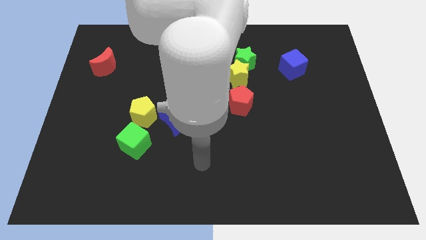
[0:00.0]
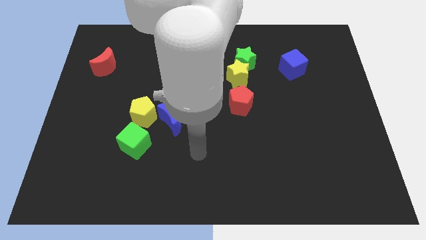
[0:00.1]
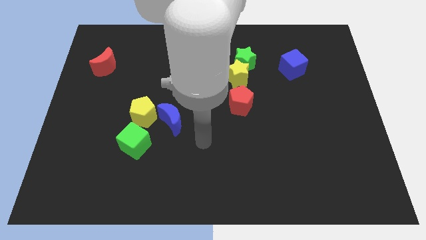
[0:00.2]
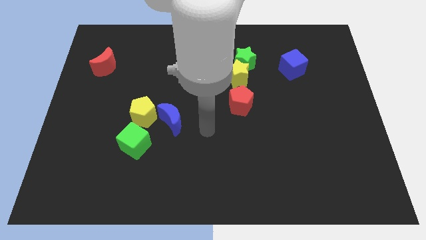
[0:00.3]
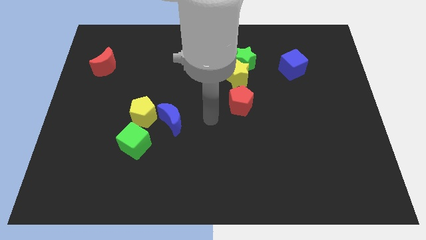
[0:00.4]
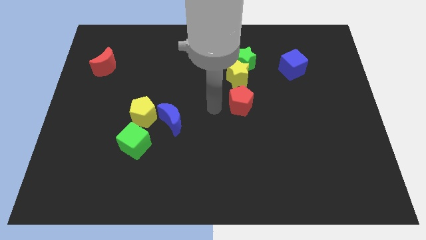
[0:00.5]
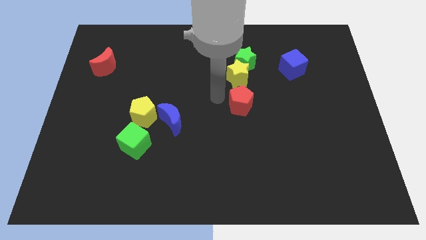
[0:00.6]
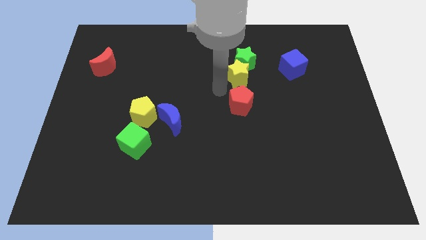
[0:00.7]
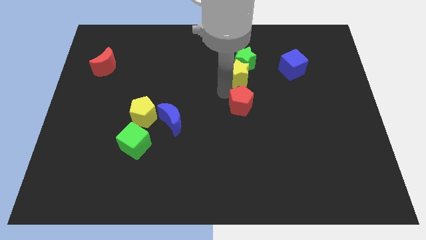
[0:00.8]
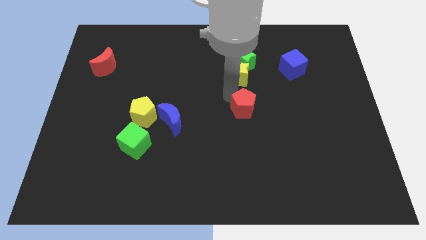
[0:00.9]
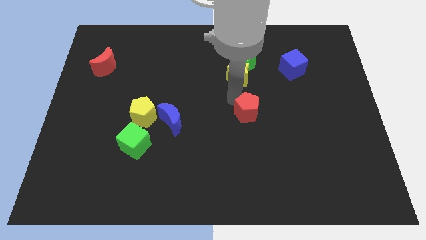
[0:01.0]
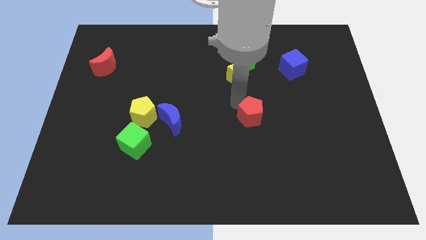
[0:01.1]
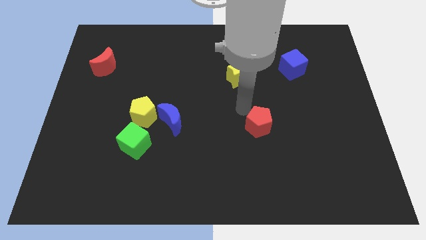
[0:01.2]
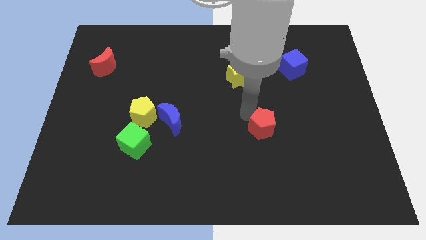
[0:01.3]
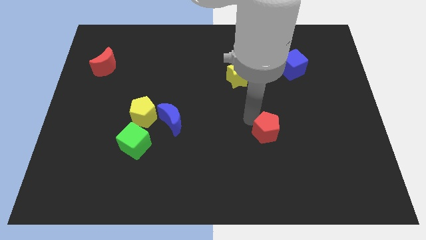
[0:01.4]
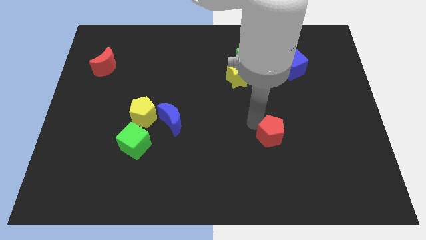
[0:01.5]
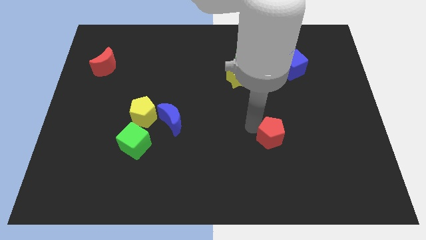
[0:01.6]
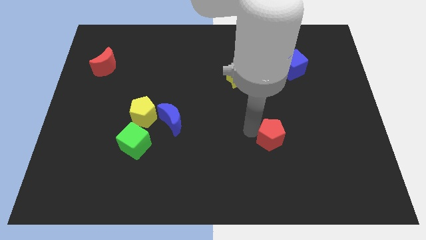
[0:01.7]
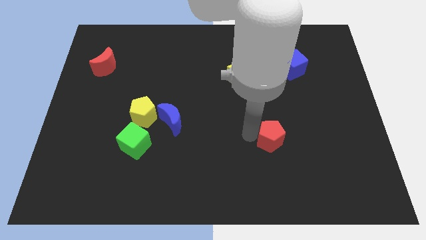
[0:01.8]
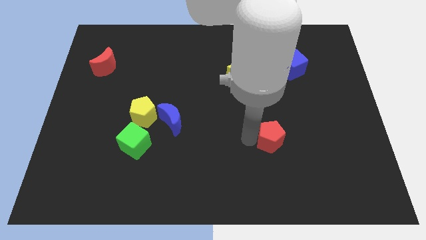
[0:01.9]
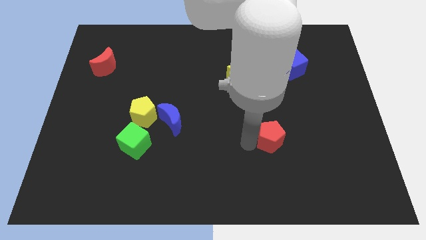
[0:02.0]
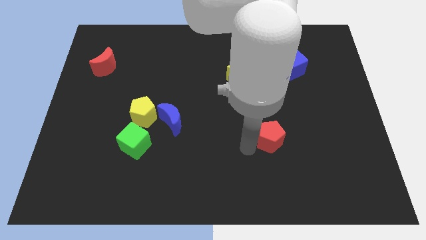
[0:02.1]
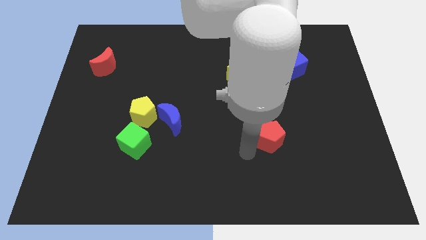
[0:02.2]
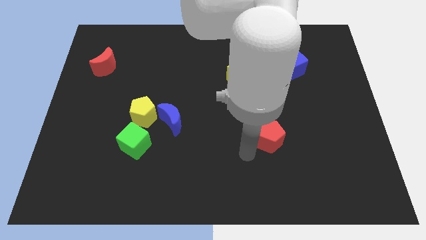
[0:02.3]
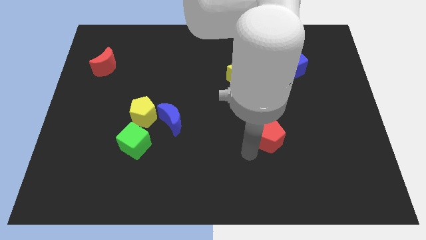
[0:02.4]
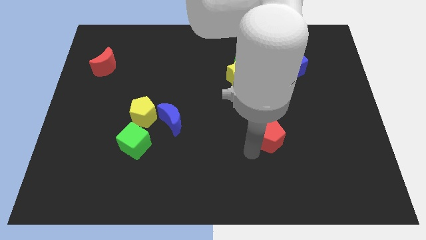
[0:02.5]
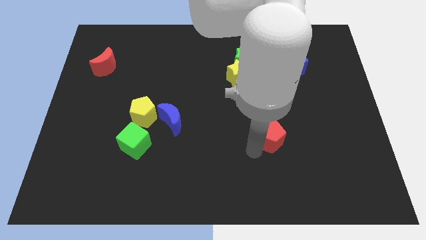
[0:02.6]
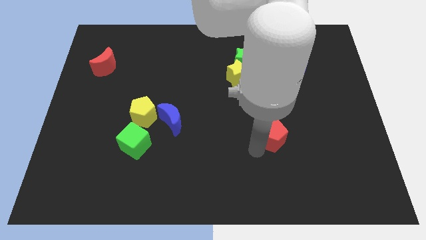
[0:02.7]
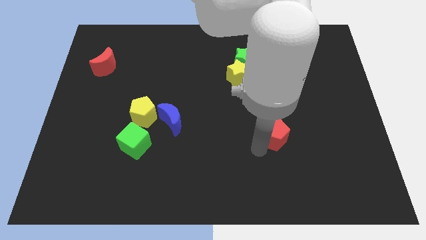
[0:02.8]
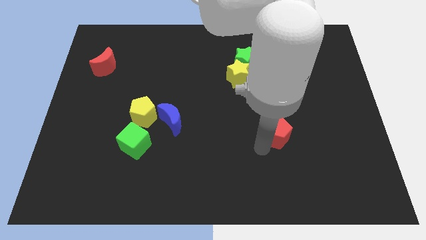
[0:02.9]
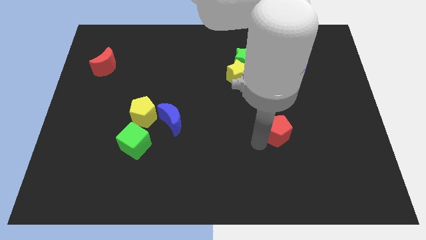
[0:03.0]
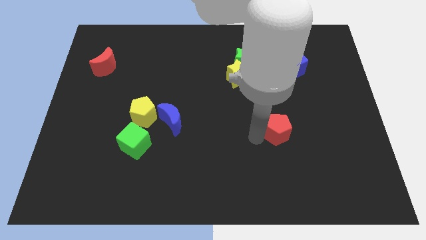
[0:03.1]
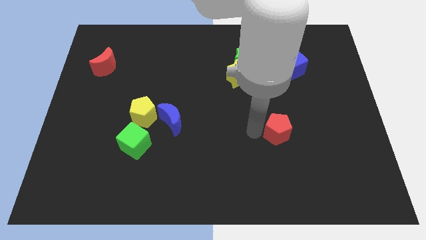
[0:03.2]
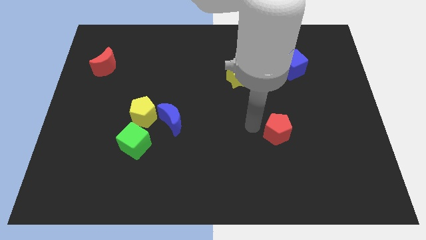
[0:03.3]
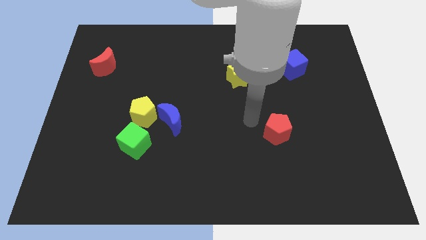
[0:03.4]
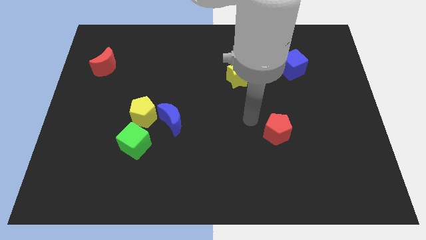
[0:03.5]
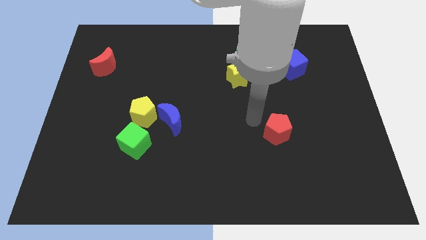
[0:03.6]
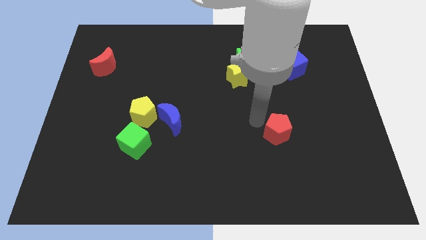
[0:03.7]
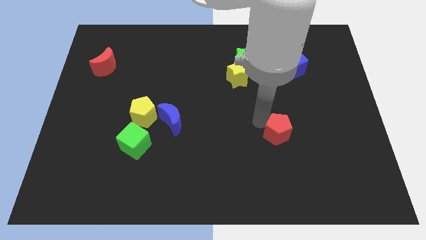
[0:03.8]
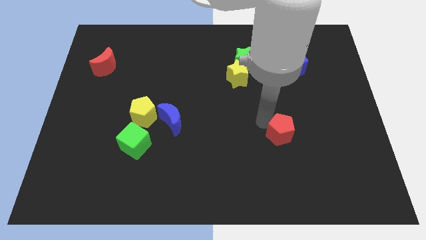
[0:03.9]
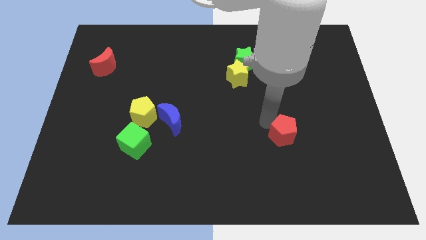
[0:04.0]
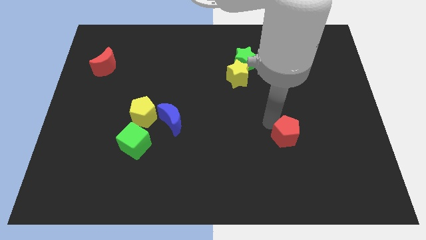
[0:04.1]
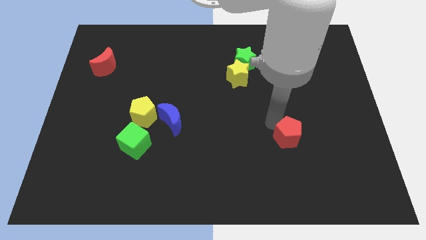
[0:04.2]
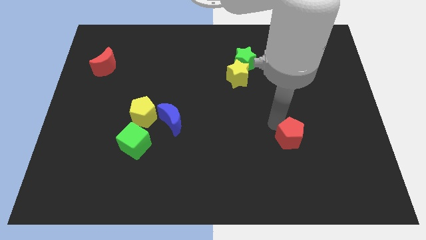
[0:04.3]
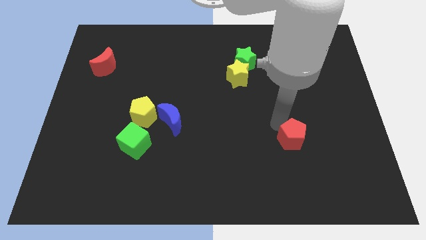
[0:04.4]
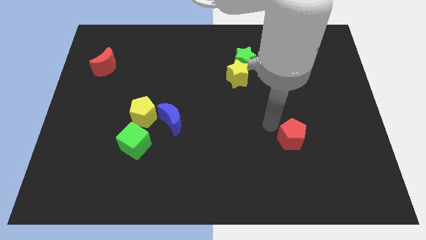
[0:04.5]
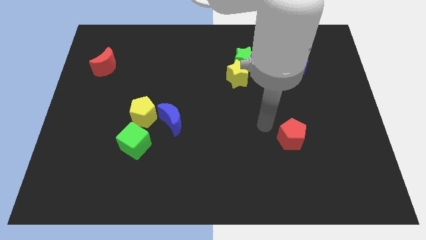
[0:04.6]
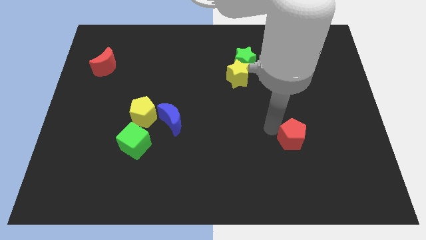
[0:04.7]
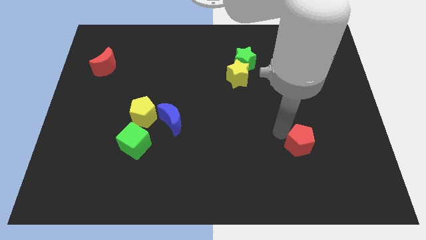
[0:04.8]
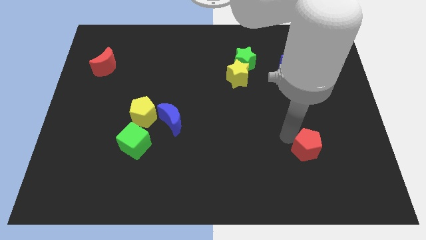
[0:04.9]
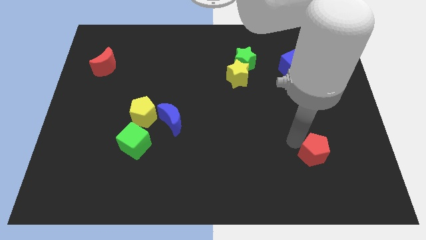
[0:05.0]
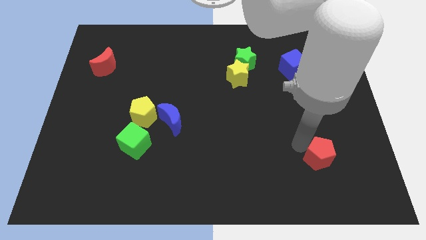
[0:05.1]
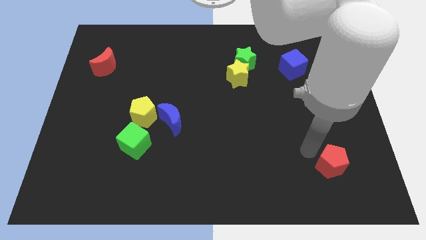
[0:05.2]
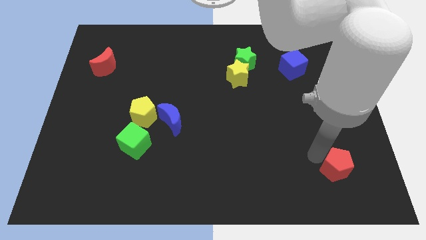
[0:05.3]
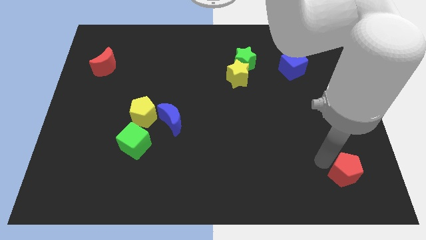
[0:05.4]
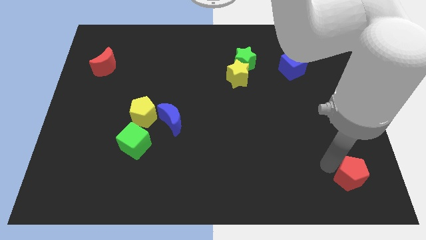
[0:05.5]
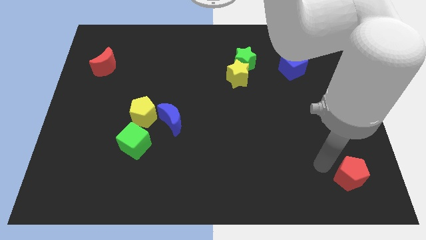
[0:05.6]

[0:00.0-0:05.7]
move the red pentagon to the bottom right of the board

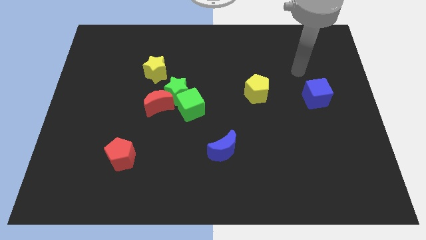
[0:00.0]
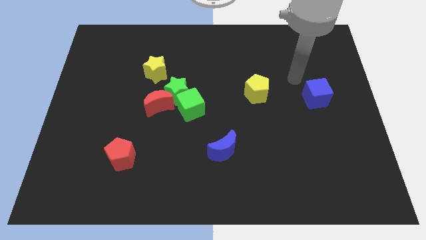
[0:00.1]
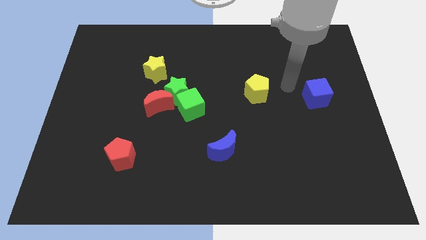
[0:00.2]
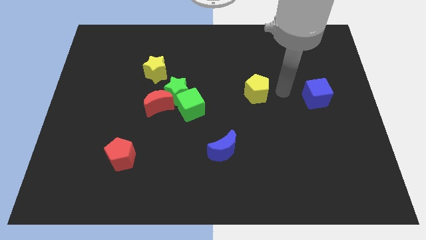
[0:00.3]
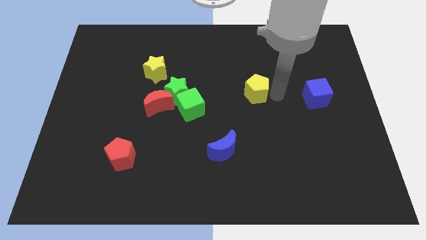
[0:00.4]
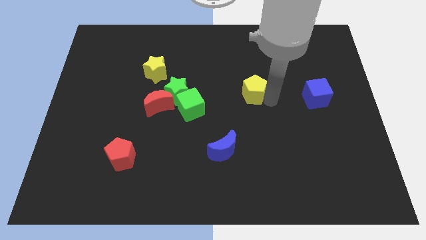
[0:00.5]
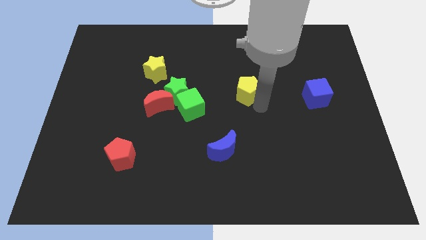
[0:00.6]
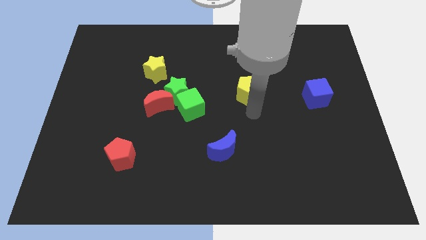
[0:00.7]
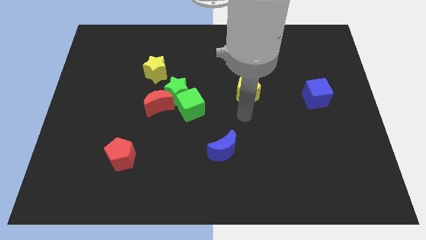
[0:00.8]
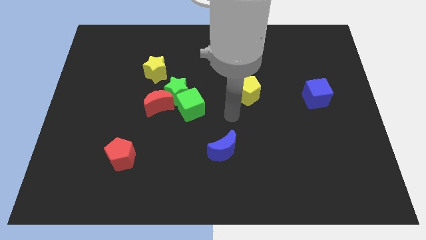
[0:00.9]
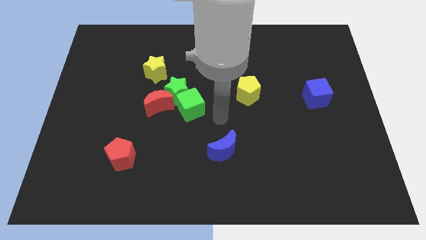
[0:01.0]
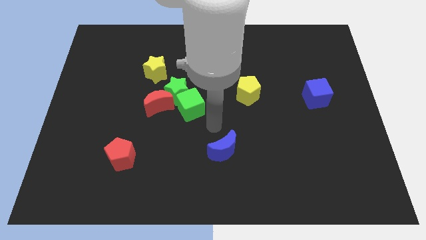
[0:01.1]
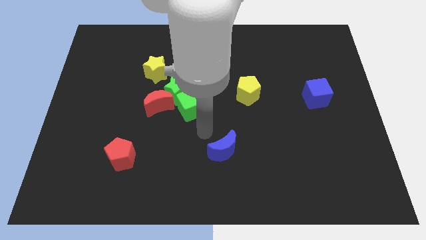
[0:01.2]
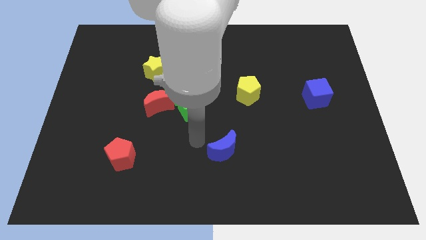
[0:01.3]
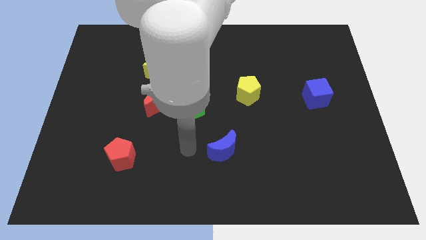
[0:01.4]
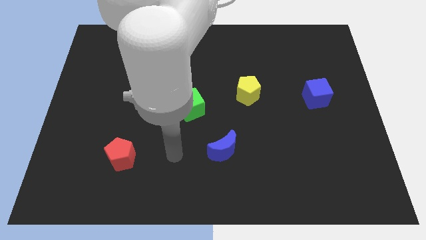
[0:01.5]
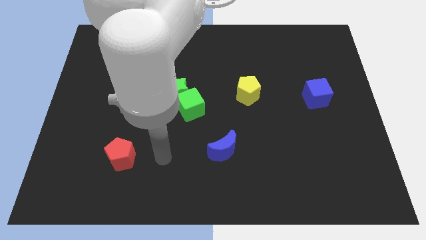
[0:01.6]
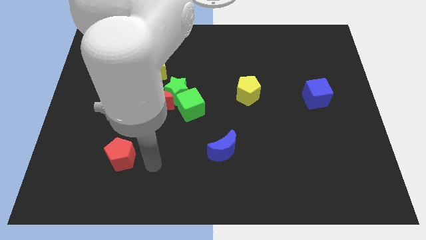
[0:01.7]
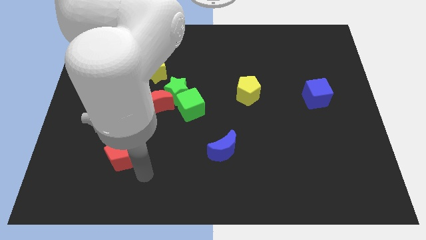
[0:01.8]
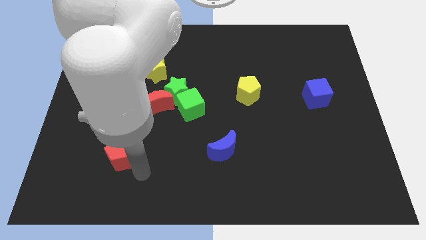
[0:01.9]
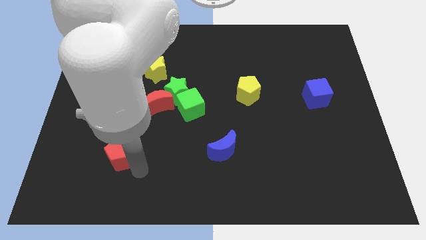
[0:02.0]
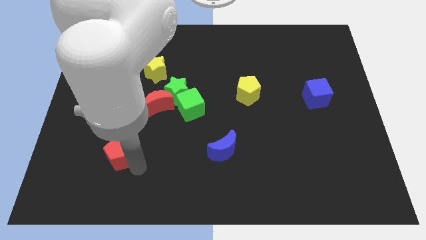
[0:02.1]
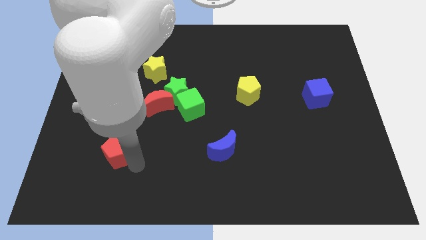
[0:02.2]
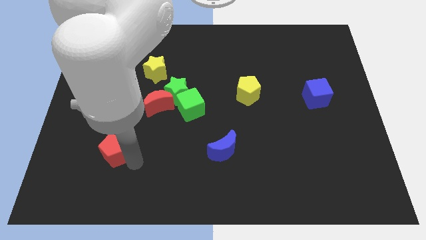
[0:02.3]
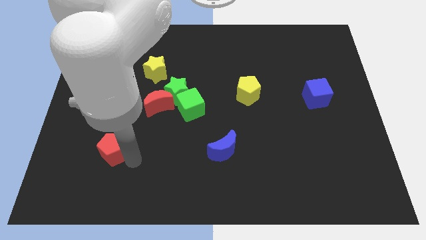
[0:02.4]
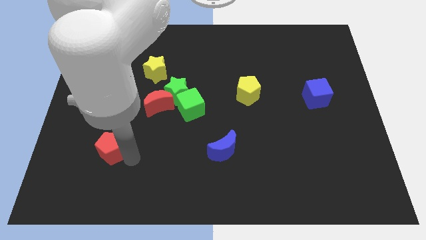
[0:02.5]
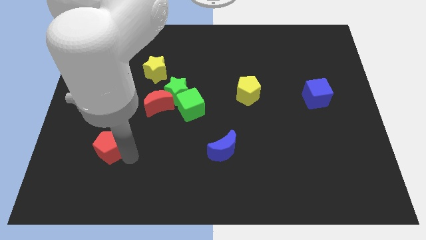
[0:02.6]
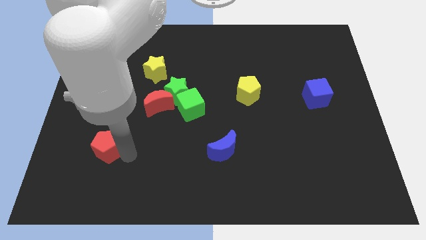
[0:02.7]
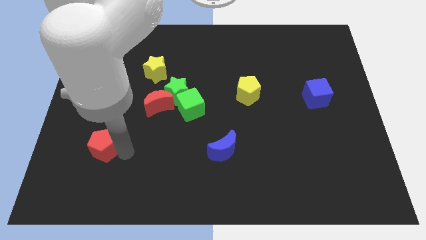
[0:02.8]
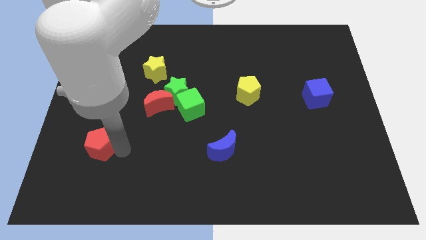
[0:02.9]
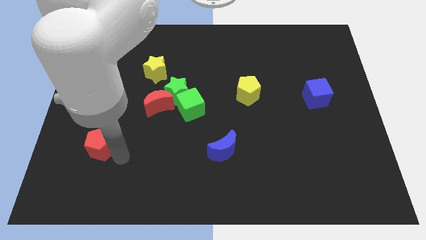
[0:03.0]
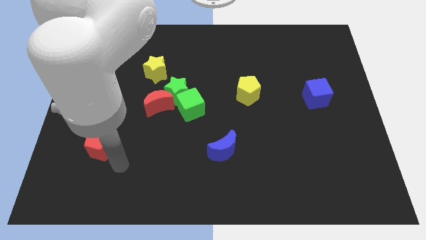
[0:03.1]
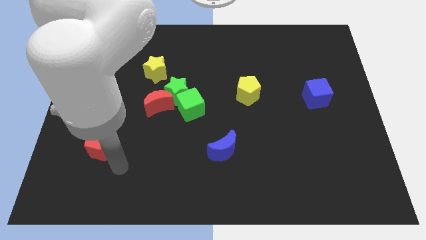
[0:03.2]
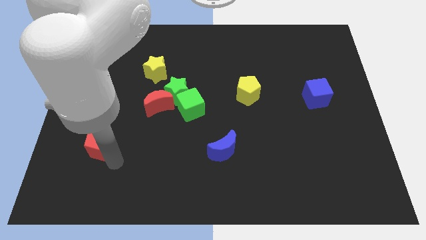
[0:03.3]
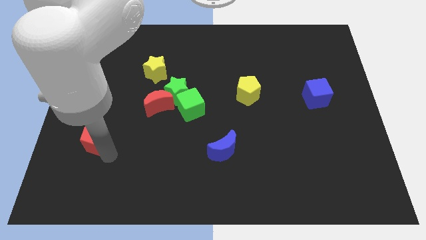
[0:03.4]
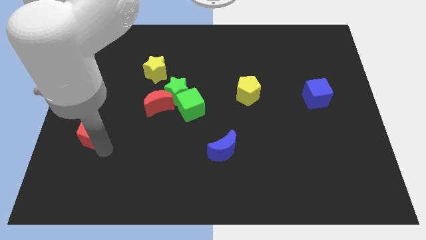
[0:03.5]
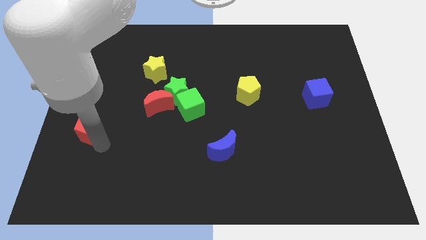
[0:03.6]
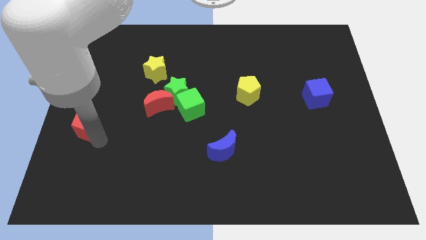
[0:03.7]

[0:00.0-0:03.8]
move the red pentagon to the left side of the board
